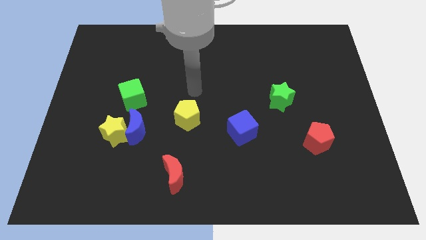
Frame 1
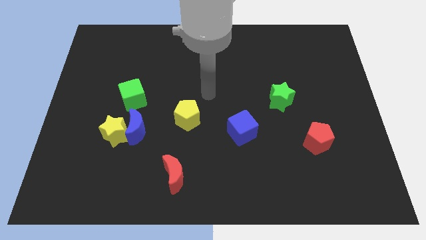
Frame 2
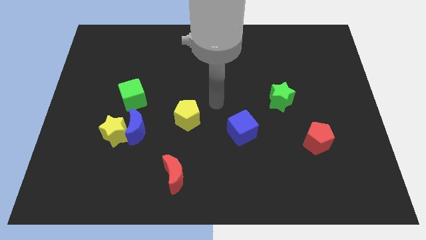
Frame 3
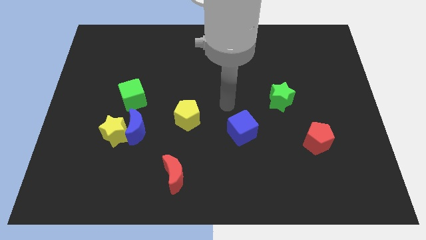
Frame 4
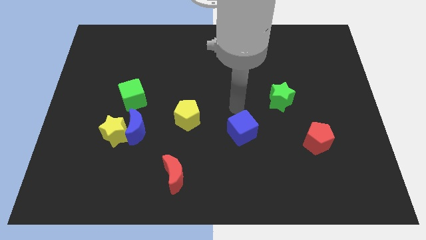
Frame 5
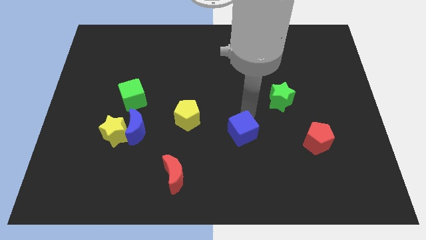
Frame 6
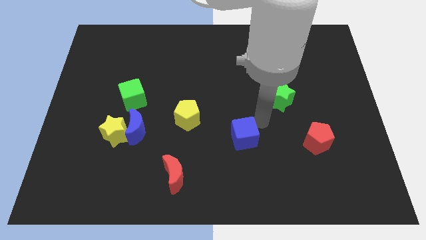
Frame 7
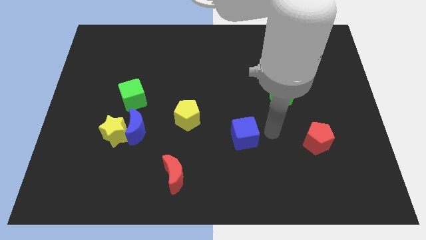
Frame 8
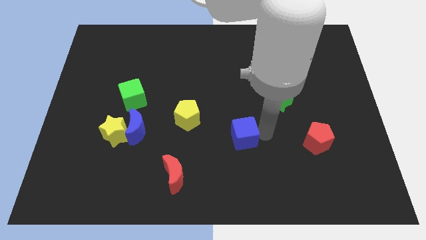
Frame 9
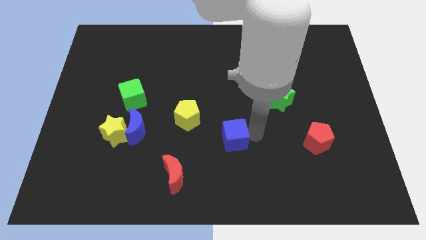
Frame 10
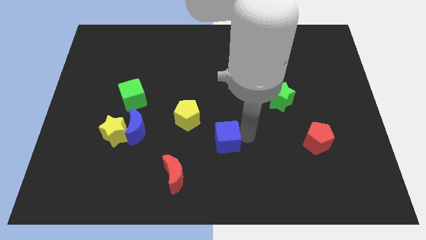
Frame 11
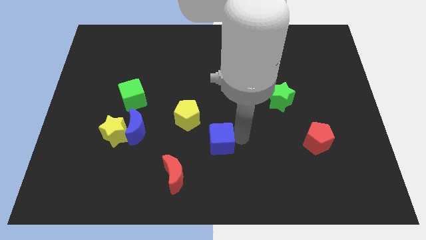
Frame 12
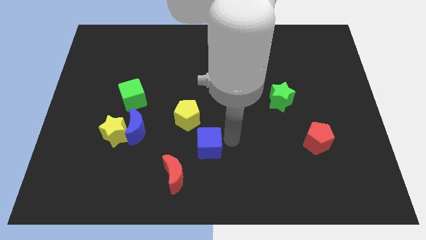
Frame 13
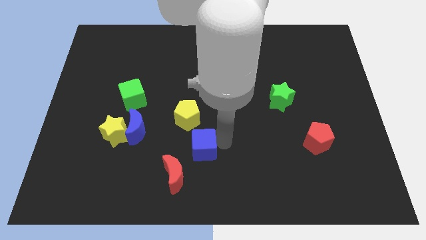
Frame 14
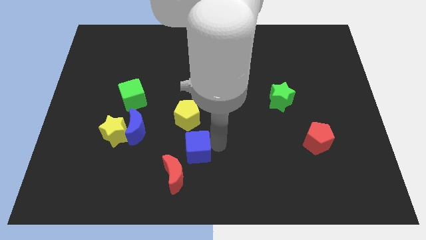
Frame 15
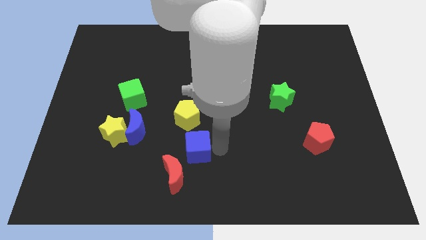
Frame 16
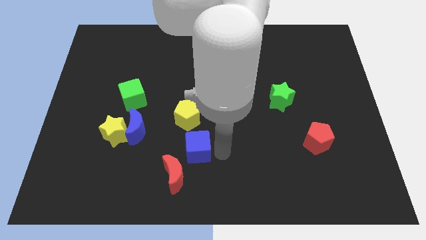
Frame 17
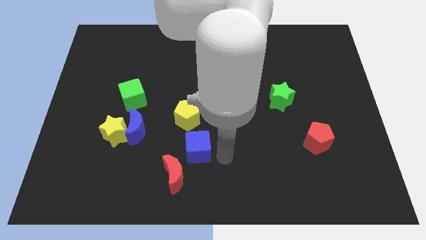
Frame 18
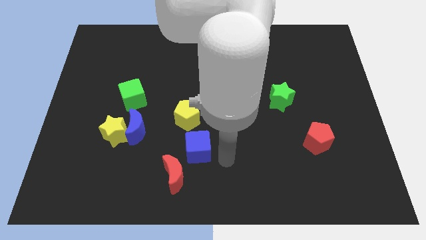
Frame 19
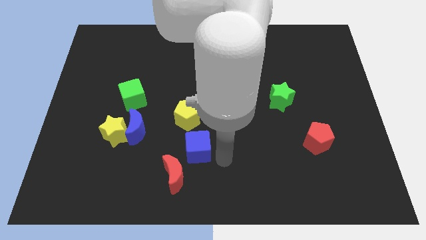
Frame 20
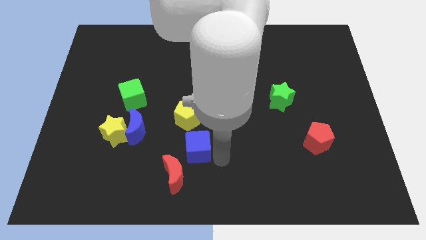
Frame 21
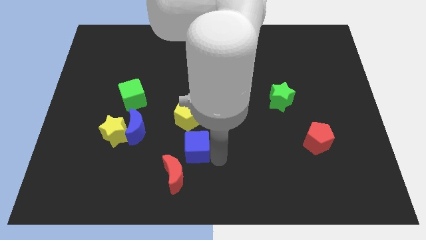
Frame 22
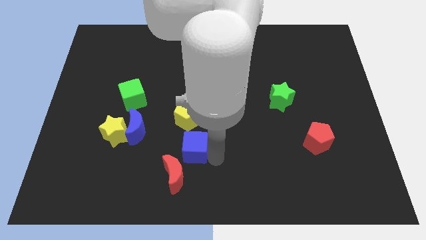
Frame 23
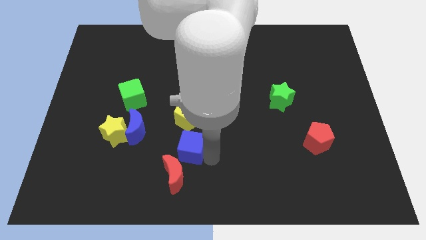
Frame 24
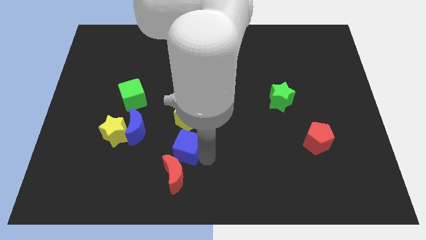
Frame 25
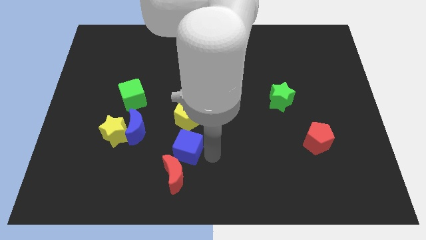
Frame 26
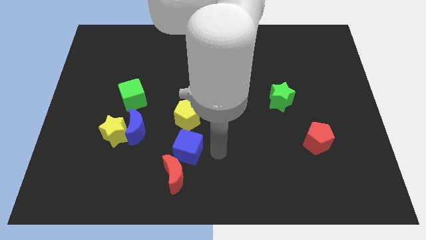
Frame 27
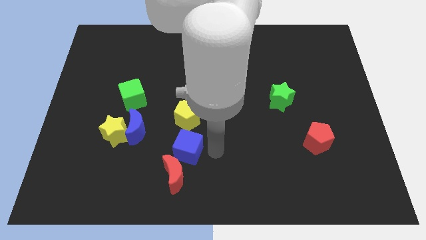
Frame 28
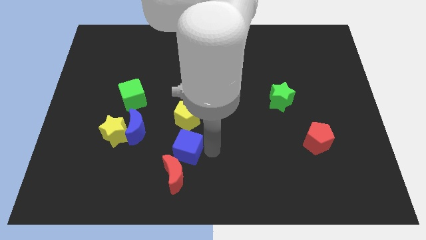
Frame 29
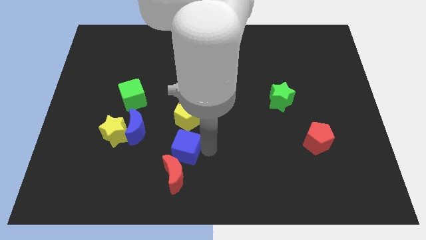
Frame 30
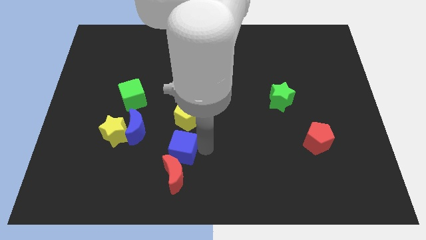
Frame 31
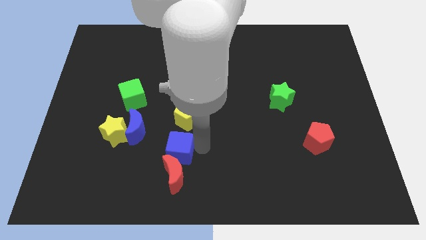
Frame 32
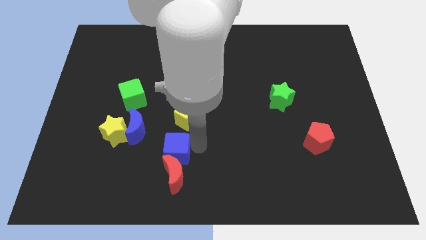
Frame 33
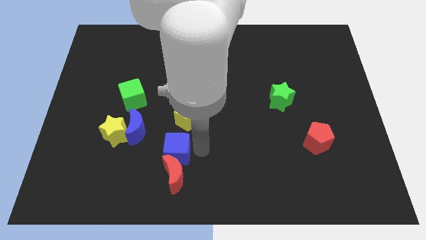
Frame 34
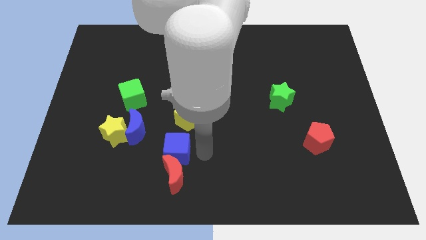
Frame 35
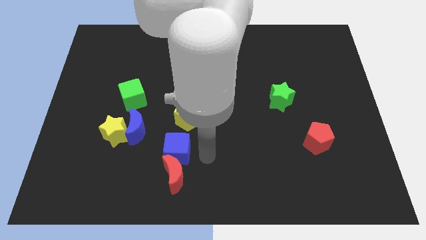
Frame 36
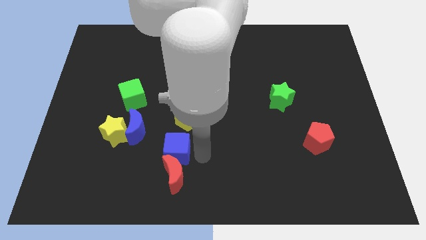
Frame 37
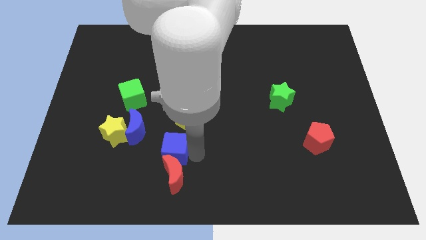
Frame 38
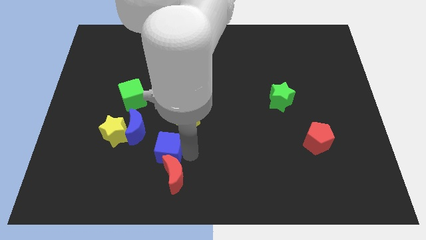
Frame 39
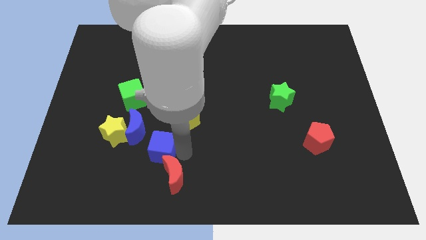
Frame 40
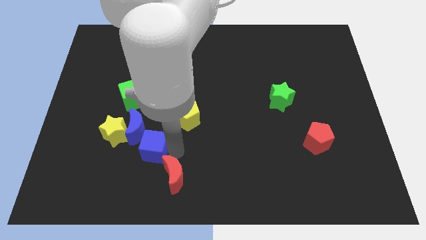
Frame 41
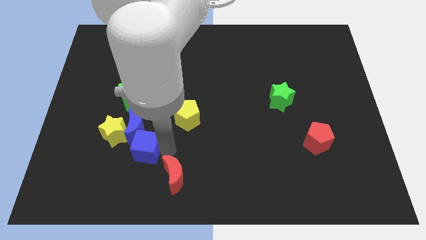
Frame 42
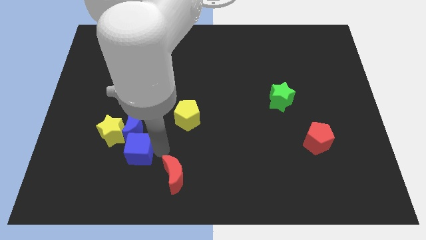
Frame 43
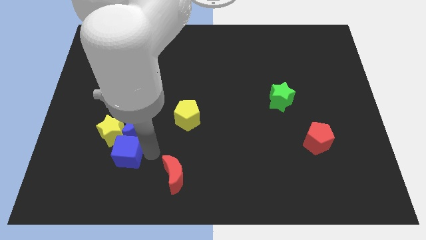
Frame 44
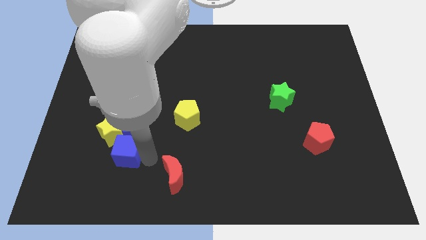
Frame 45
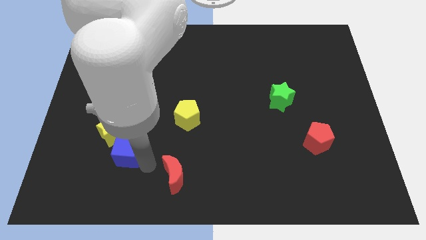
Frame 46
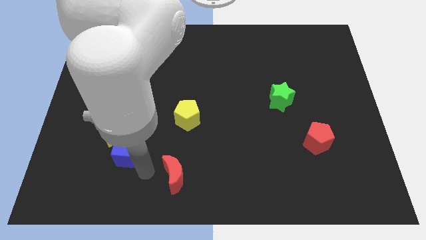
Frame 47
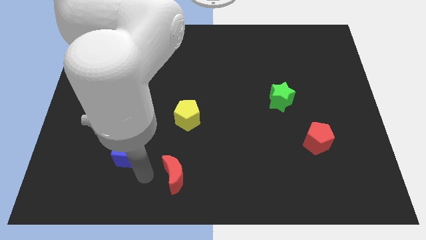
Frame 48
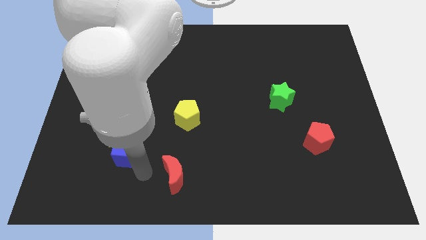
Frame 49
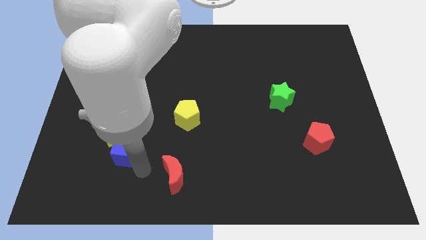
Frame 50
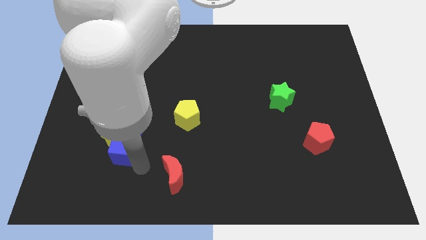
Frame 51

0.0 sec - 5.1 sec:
push the blue cube to the yellow star

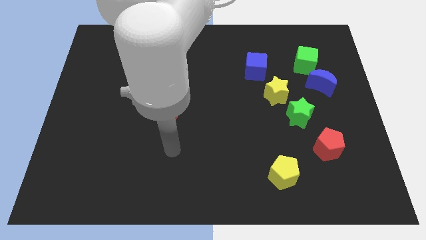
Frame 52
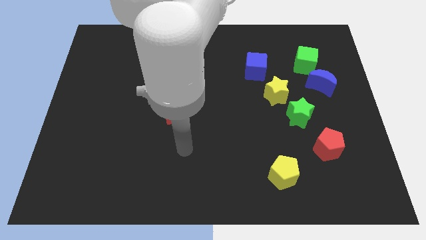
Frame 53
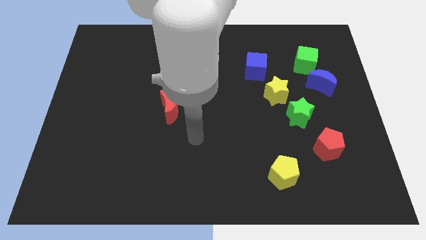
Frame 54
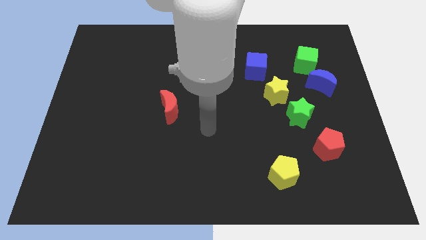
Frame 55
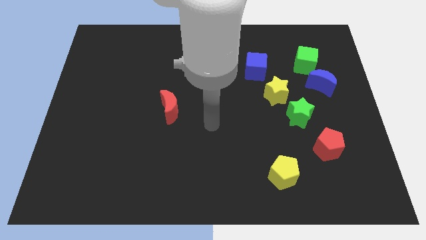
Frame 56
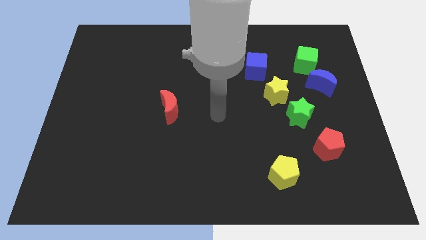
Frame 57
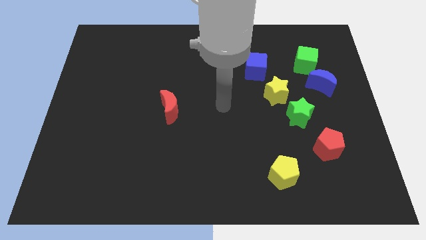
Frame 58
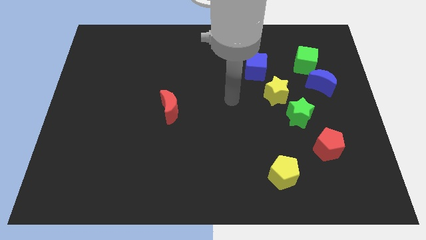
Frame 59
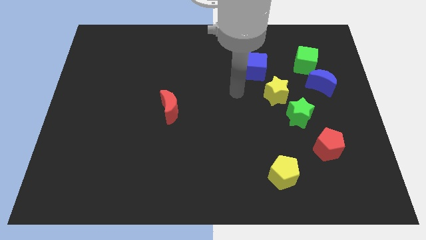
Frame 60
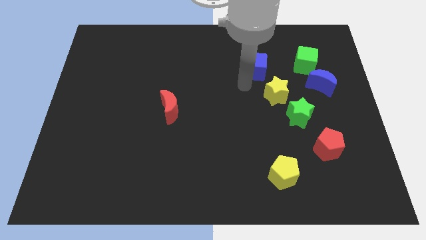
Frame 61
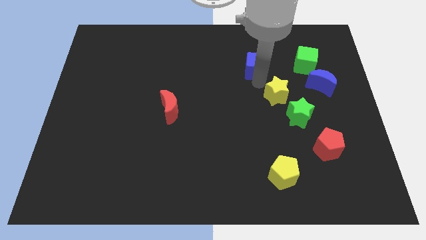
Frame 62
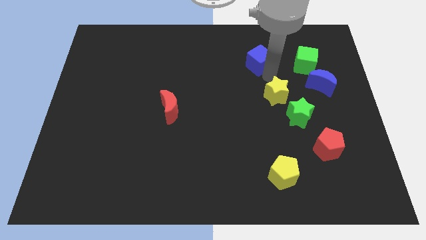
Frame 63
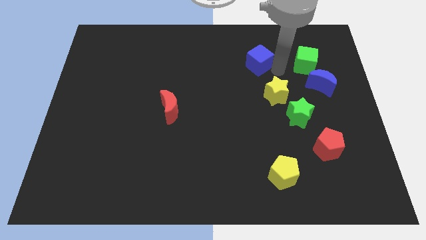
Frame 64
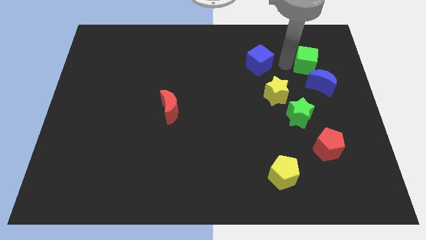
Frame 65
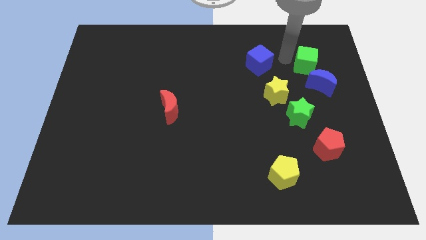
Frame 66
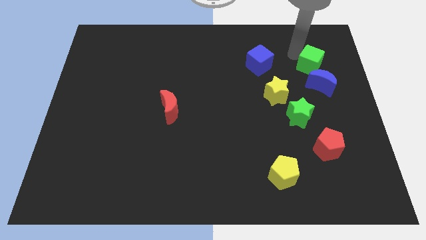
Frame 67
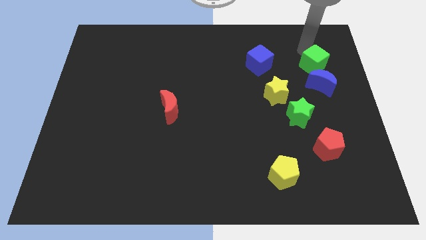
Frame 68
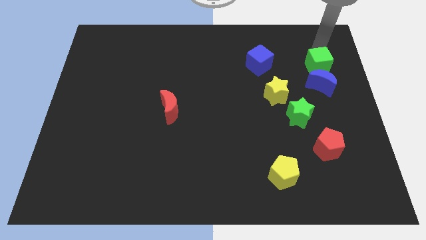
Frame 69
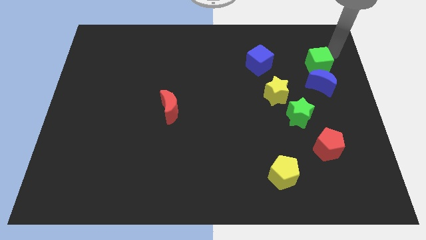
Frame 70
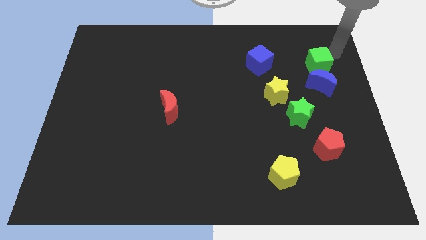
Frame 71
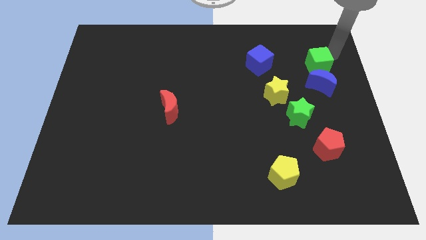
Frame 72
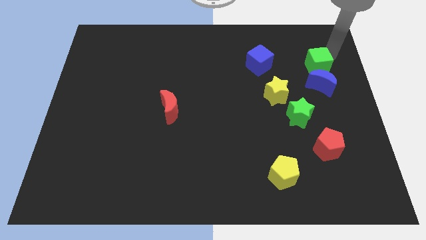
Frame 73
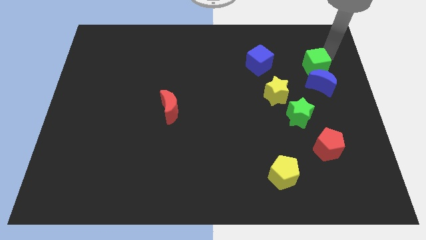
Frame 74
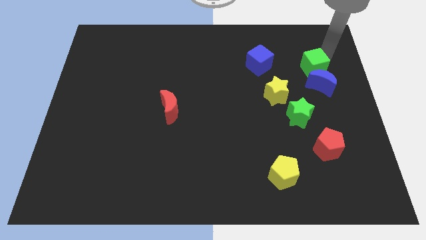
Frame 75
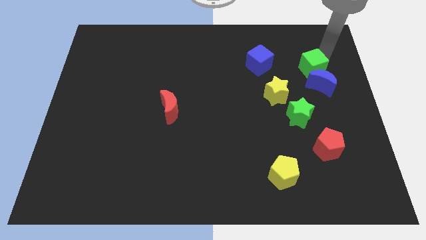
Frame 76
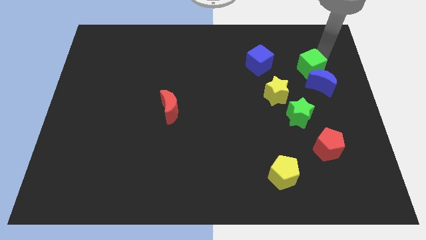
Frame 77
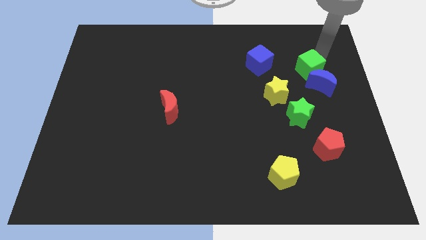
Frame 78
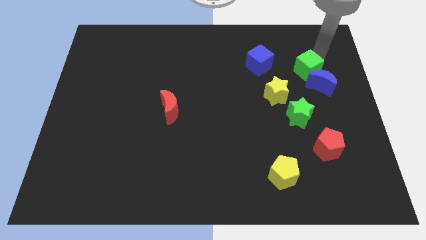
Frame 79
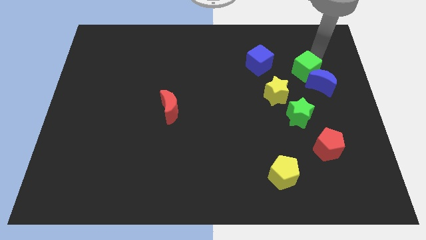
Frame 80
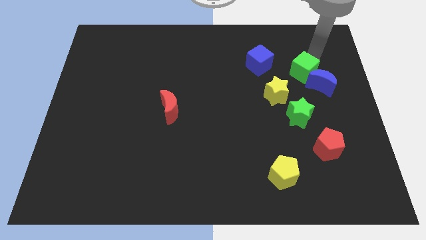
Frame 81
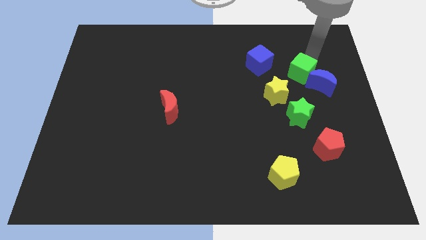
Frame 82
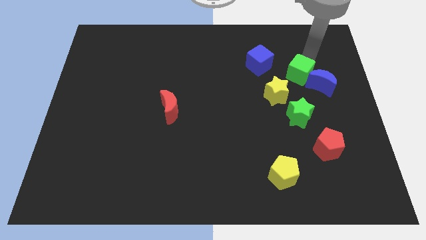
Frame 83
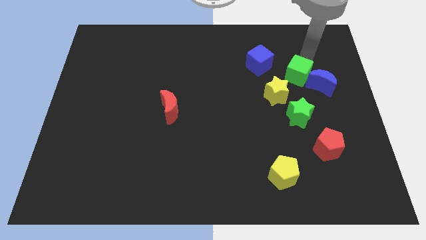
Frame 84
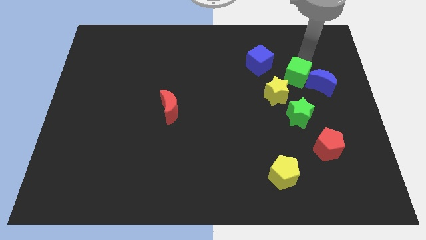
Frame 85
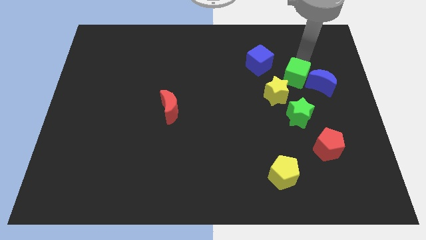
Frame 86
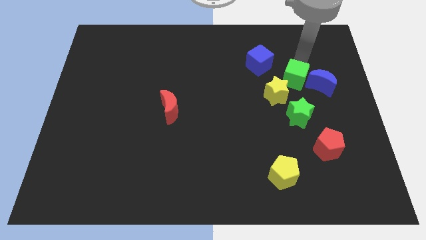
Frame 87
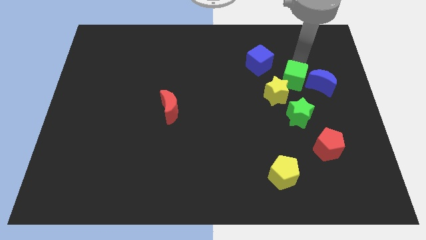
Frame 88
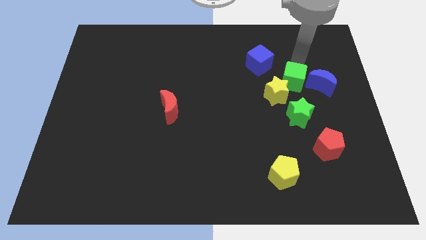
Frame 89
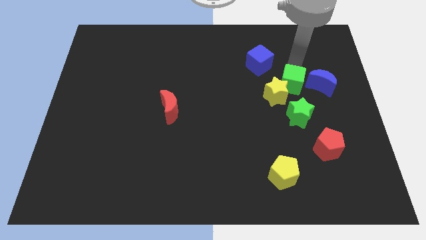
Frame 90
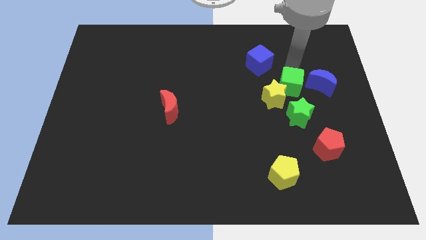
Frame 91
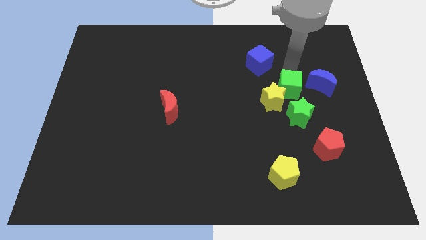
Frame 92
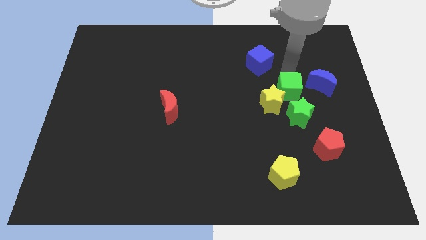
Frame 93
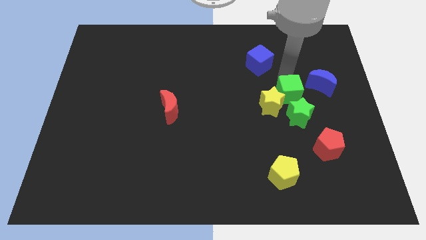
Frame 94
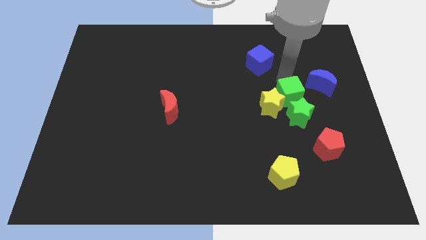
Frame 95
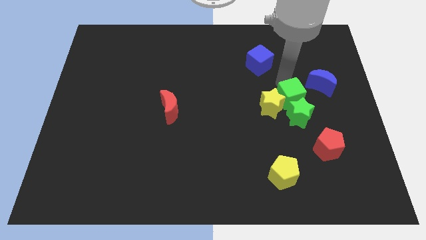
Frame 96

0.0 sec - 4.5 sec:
push the green cube to the green star
